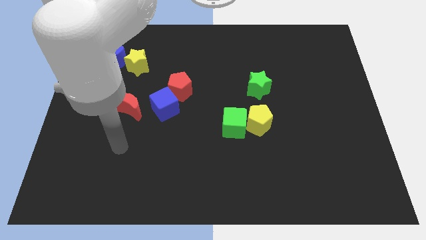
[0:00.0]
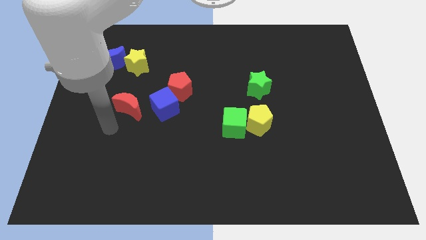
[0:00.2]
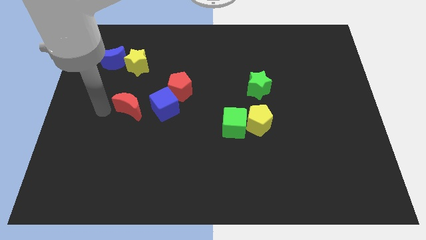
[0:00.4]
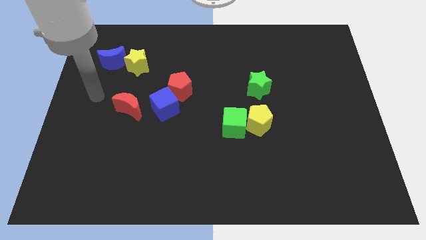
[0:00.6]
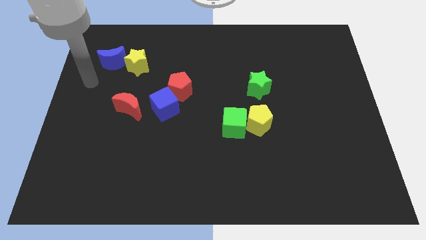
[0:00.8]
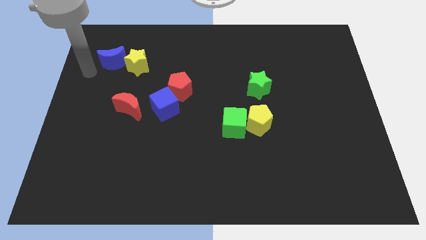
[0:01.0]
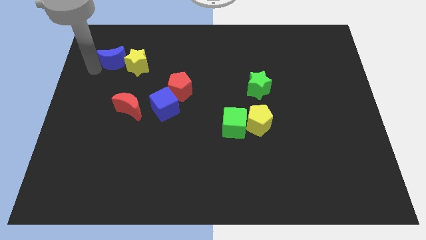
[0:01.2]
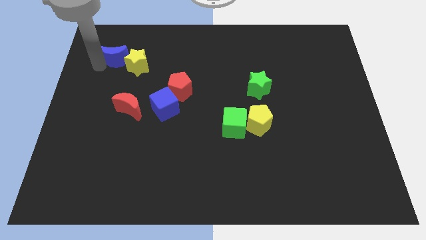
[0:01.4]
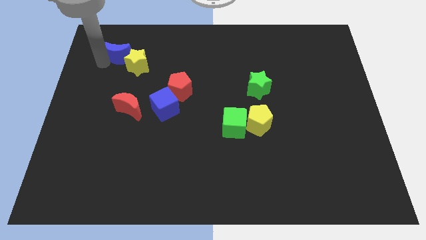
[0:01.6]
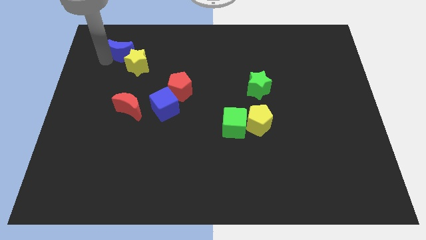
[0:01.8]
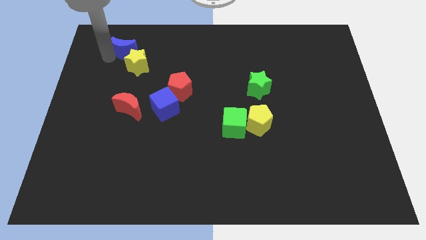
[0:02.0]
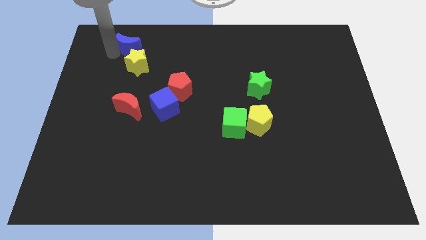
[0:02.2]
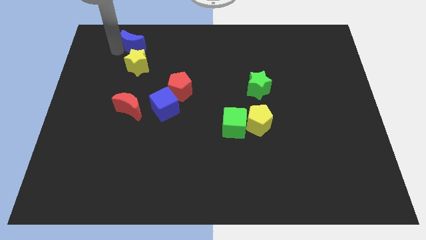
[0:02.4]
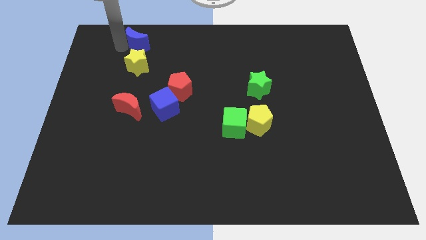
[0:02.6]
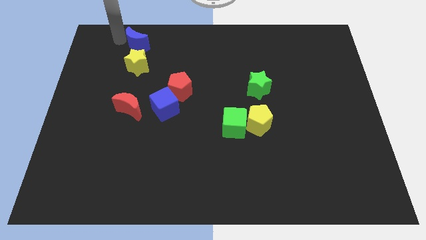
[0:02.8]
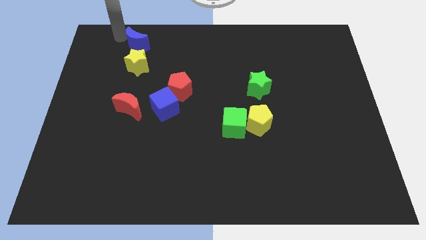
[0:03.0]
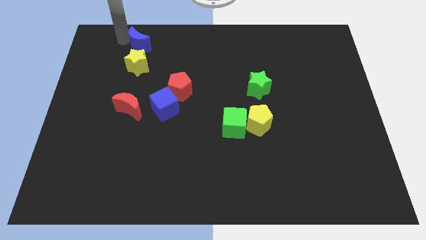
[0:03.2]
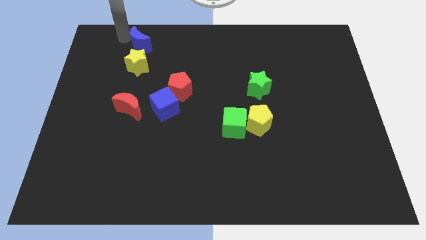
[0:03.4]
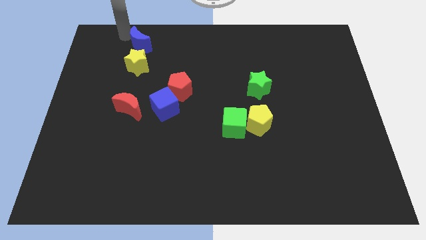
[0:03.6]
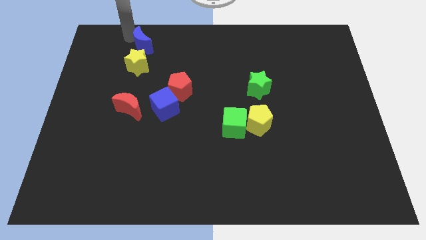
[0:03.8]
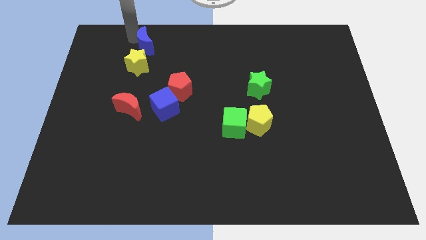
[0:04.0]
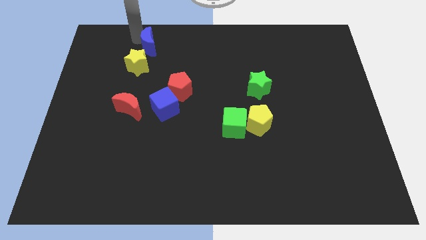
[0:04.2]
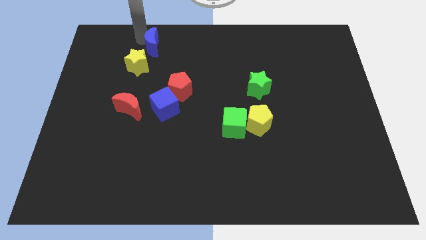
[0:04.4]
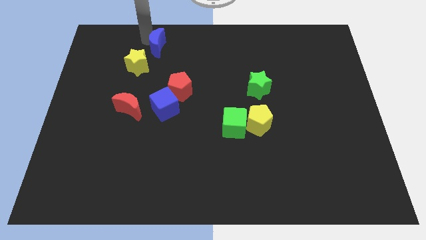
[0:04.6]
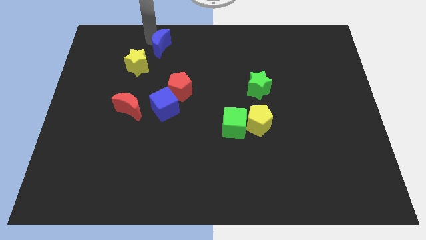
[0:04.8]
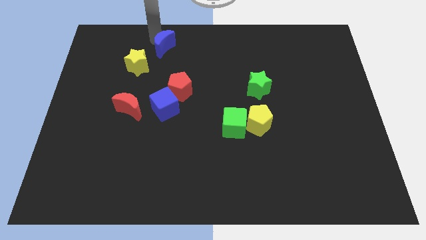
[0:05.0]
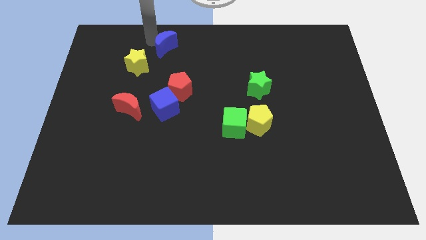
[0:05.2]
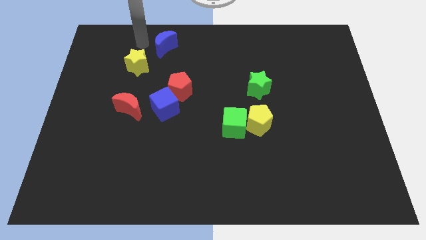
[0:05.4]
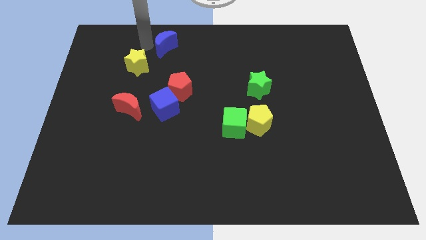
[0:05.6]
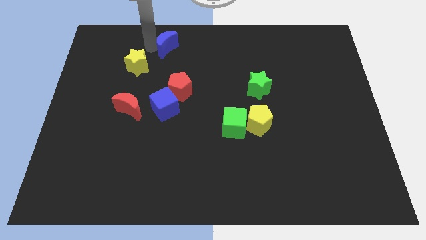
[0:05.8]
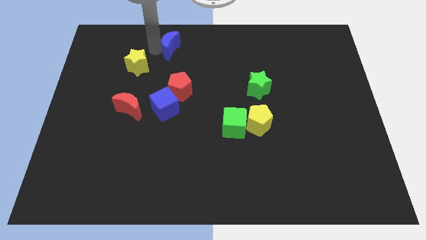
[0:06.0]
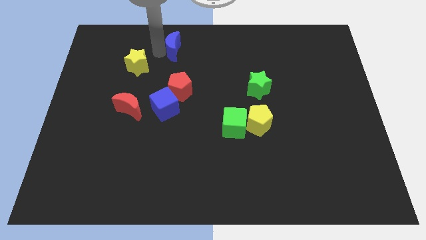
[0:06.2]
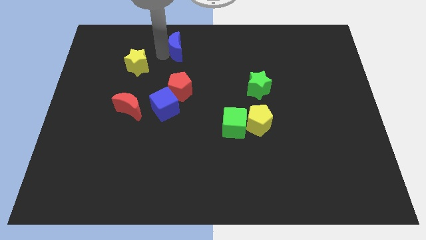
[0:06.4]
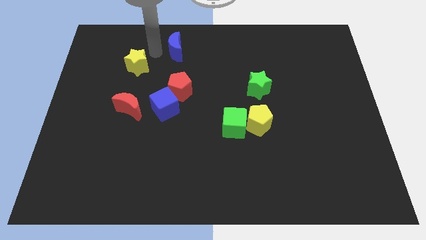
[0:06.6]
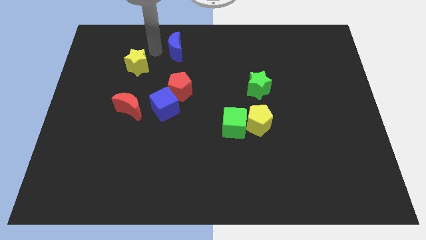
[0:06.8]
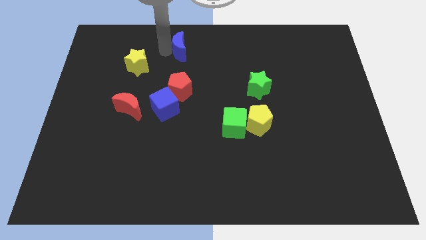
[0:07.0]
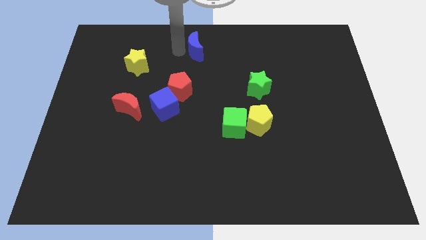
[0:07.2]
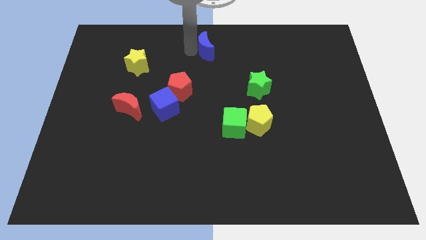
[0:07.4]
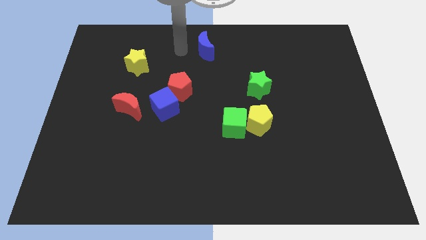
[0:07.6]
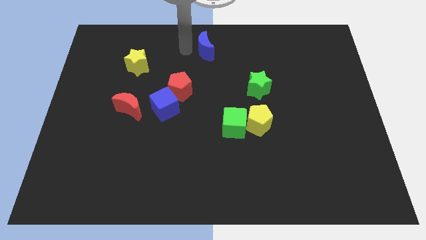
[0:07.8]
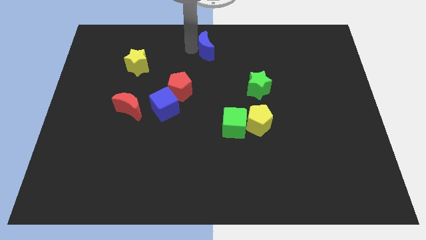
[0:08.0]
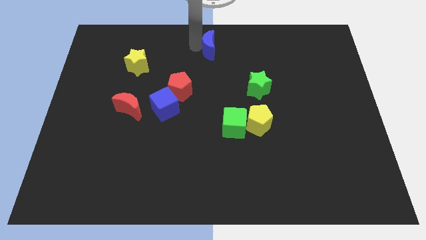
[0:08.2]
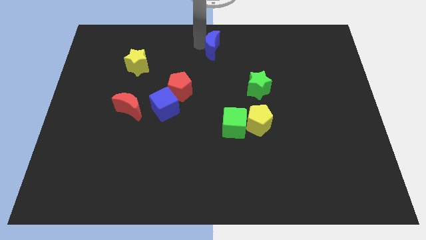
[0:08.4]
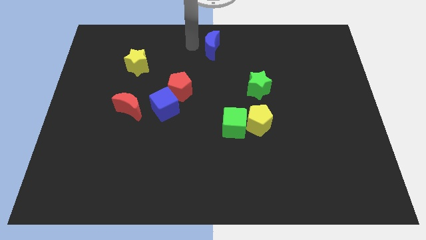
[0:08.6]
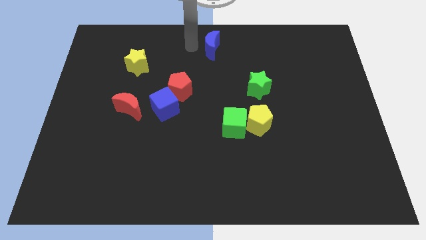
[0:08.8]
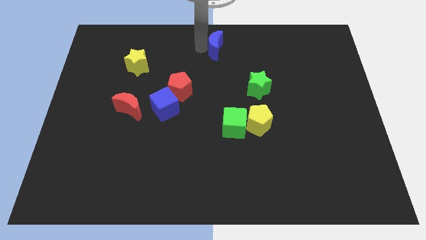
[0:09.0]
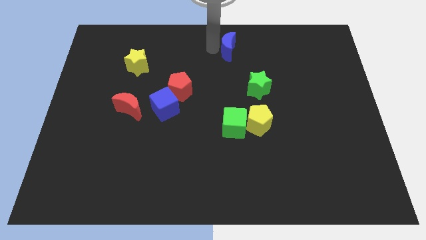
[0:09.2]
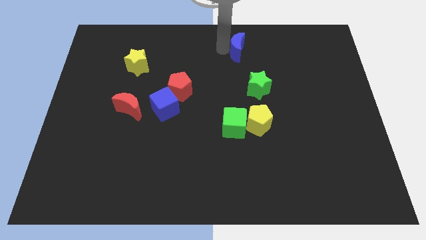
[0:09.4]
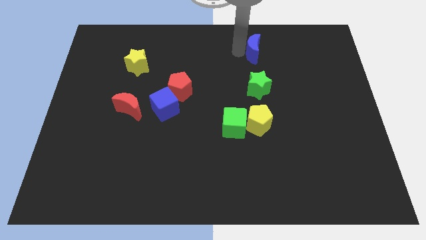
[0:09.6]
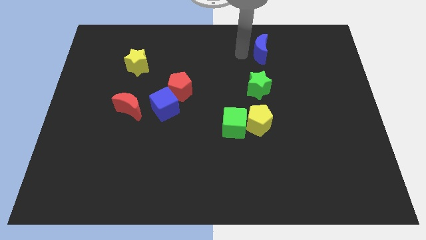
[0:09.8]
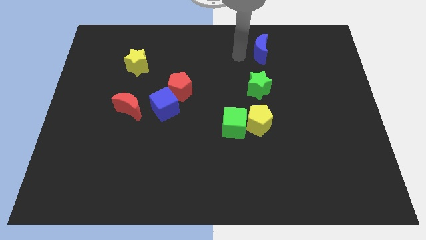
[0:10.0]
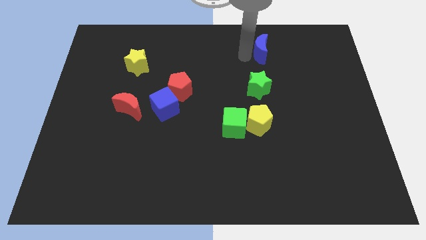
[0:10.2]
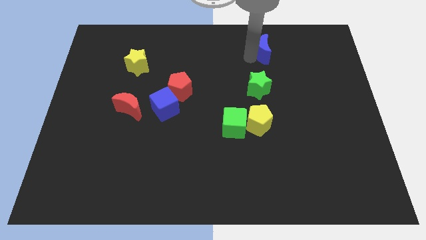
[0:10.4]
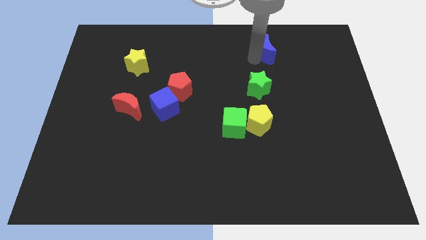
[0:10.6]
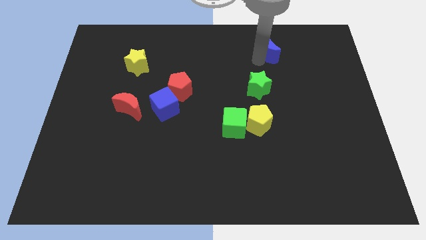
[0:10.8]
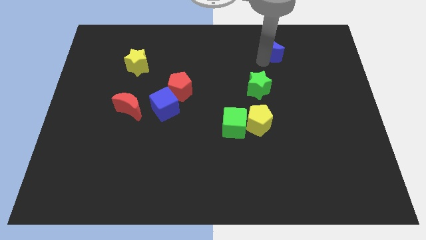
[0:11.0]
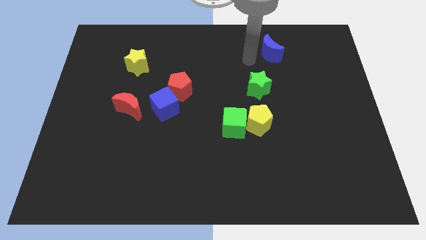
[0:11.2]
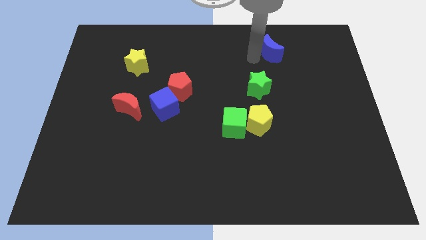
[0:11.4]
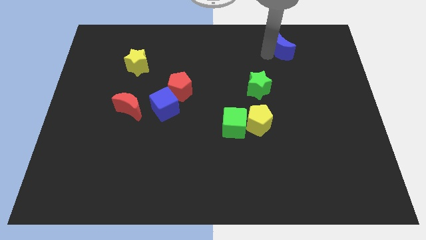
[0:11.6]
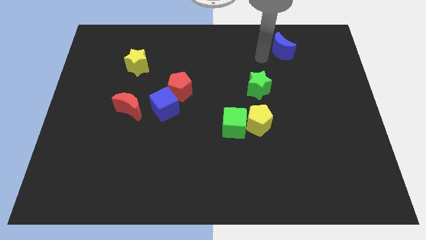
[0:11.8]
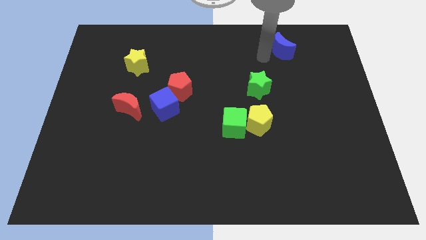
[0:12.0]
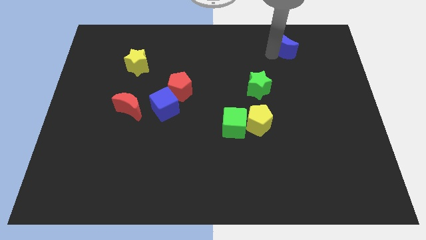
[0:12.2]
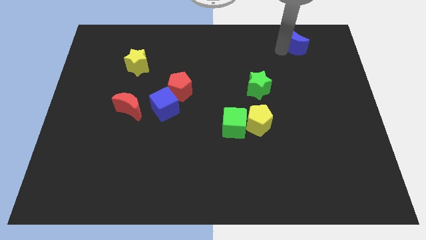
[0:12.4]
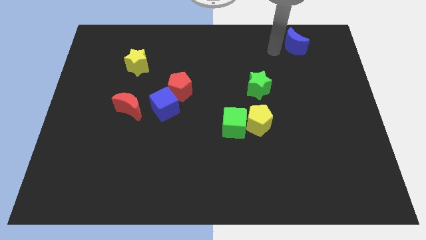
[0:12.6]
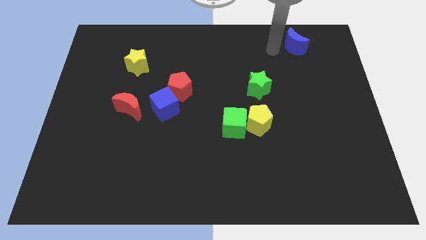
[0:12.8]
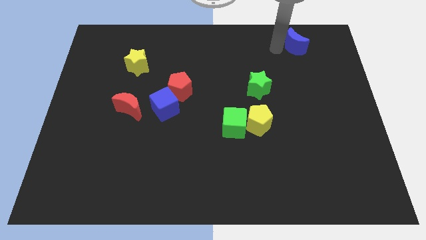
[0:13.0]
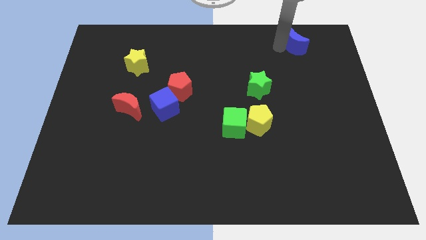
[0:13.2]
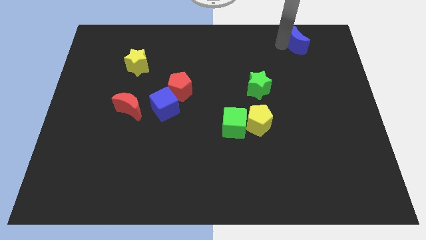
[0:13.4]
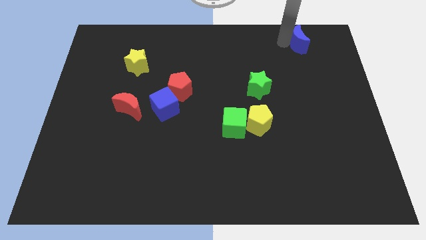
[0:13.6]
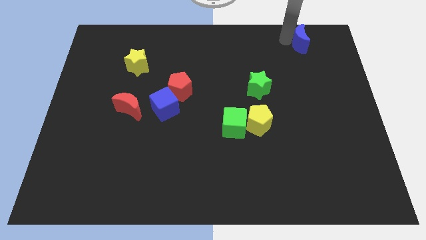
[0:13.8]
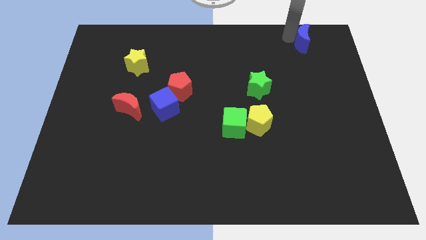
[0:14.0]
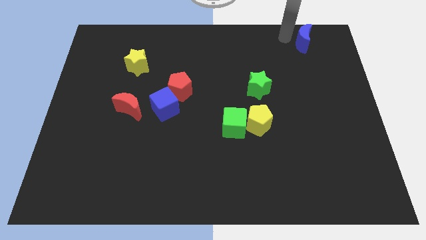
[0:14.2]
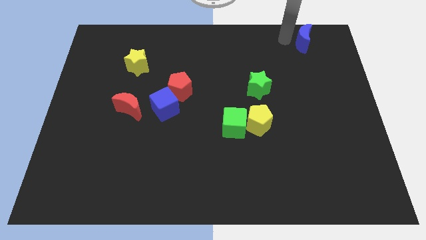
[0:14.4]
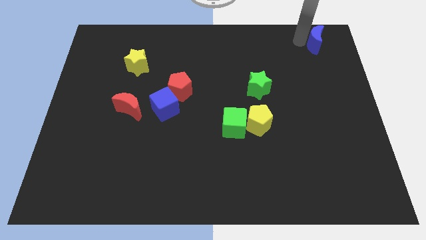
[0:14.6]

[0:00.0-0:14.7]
slide the blue moon to the top right
